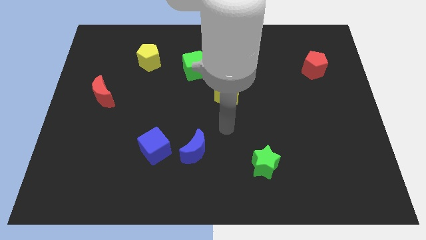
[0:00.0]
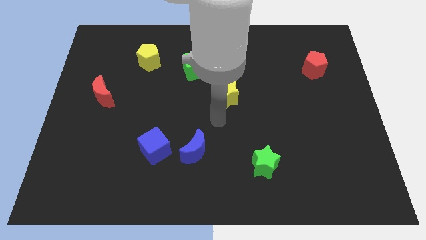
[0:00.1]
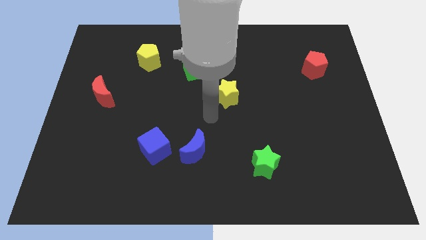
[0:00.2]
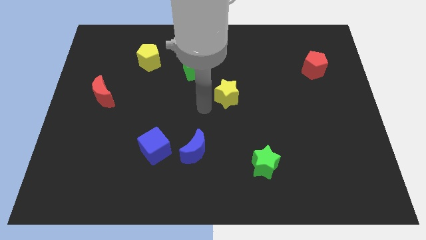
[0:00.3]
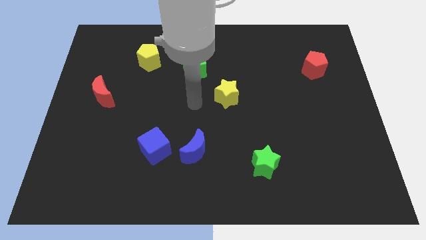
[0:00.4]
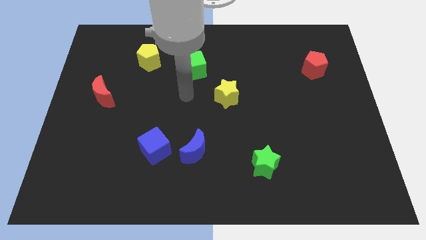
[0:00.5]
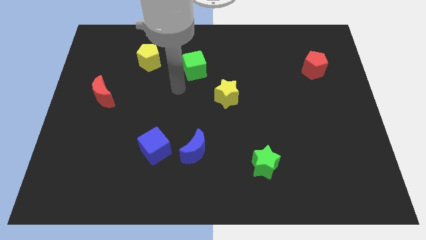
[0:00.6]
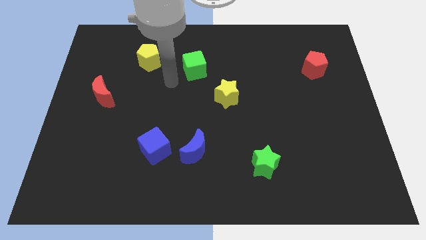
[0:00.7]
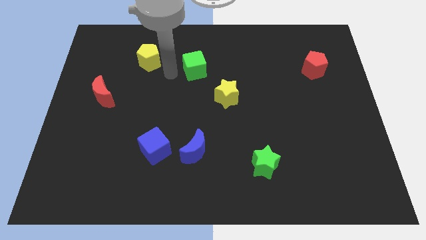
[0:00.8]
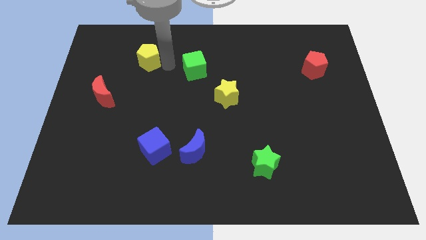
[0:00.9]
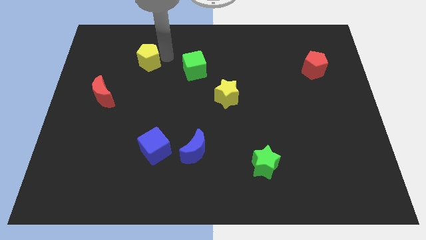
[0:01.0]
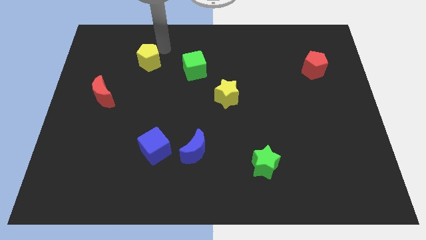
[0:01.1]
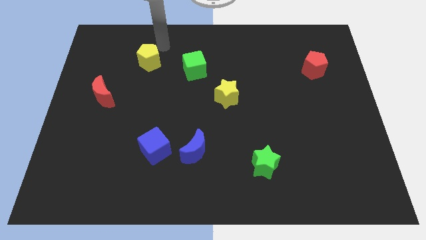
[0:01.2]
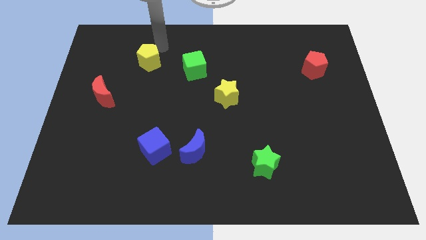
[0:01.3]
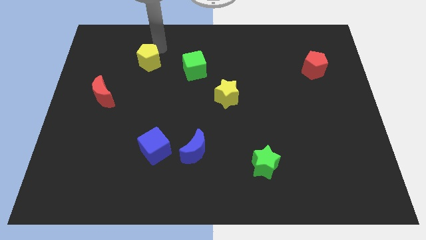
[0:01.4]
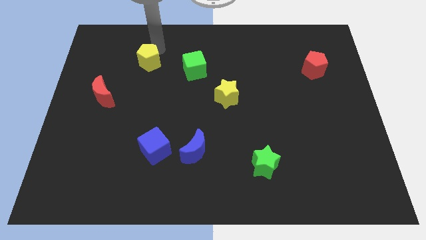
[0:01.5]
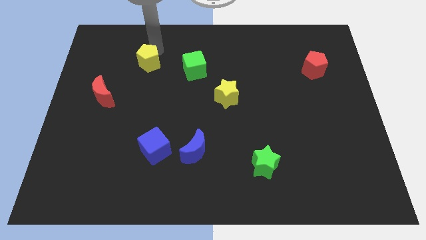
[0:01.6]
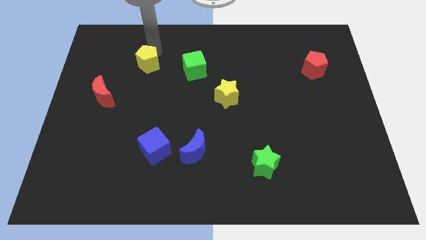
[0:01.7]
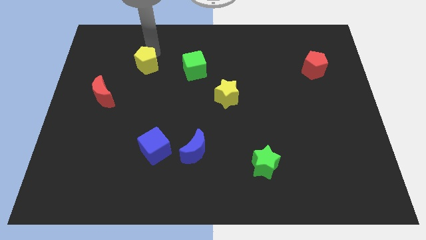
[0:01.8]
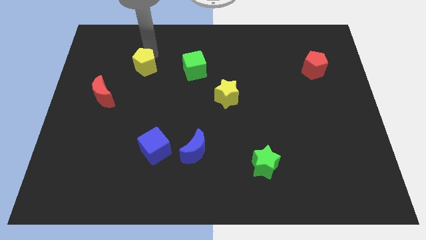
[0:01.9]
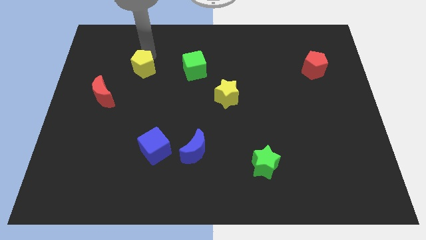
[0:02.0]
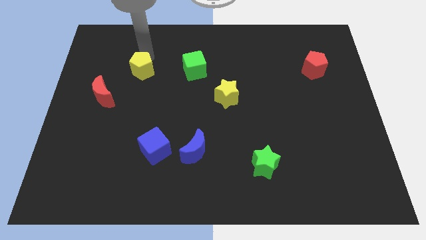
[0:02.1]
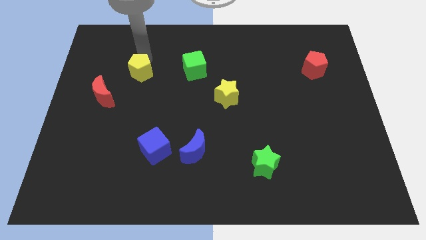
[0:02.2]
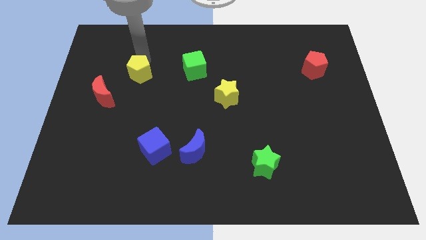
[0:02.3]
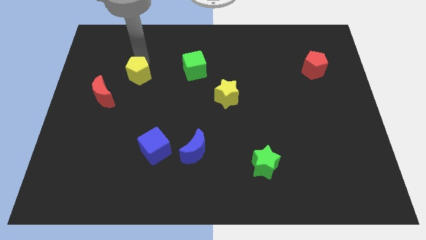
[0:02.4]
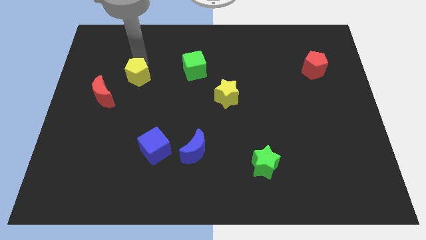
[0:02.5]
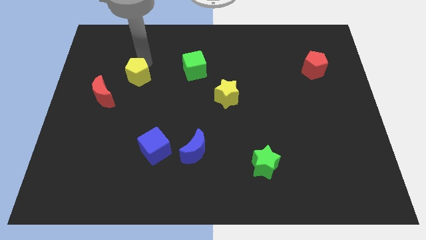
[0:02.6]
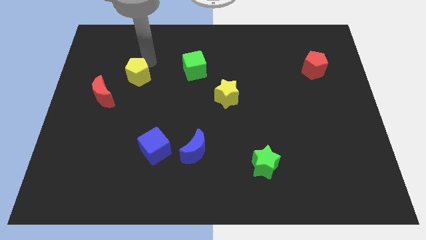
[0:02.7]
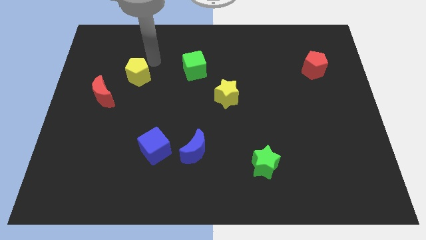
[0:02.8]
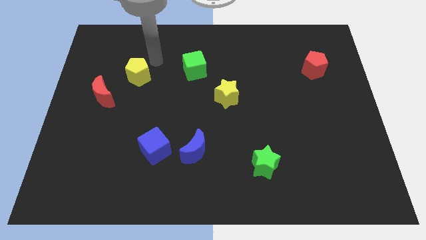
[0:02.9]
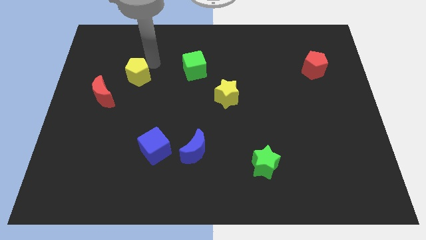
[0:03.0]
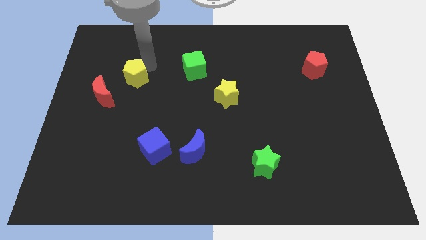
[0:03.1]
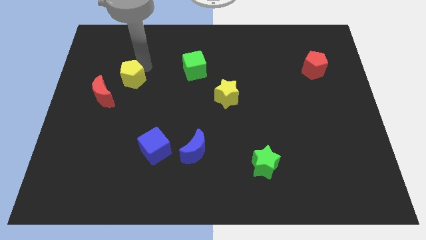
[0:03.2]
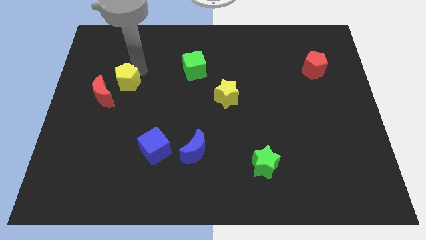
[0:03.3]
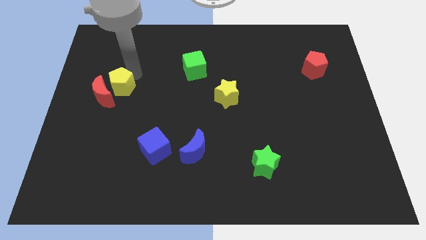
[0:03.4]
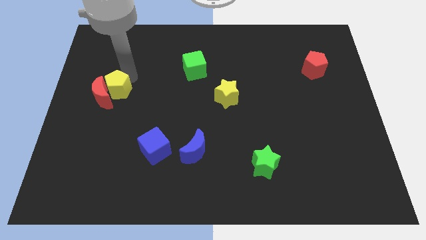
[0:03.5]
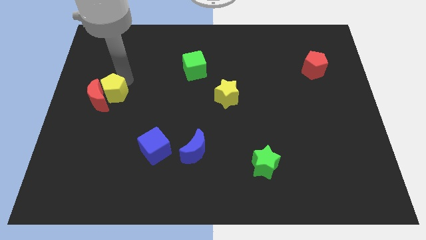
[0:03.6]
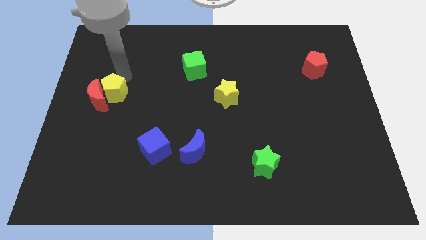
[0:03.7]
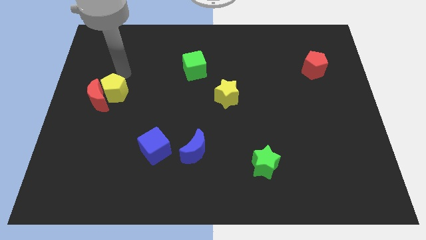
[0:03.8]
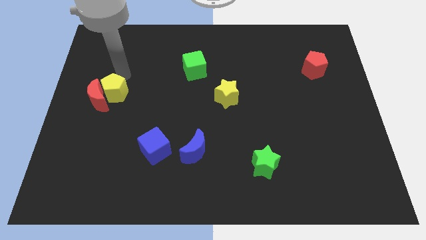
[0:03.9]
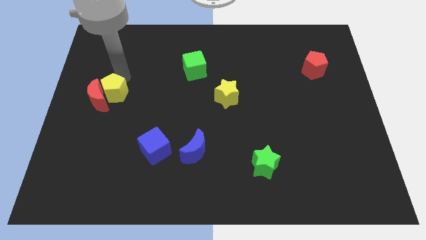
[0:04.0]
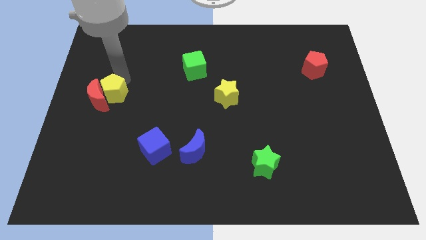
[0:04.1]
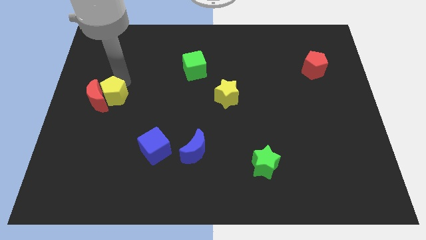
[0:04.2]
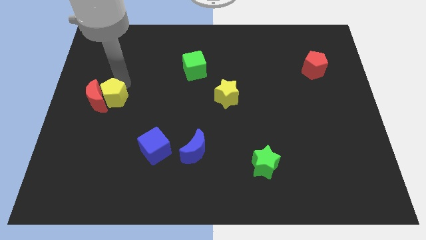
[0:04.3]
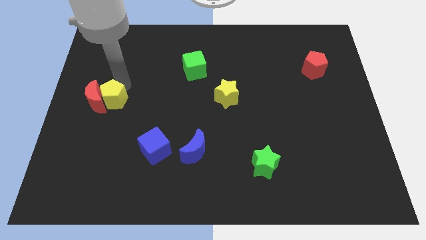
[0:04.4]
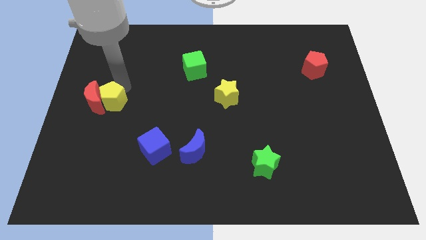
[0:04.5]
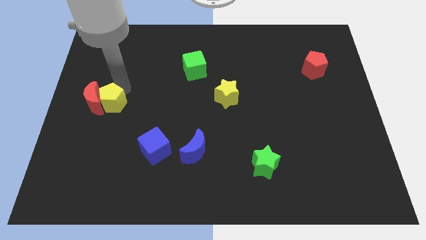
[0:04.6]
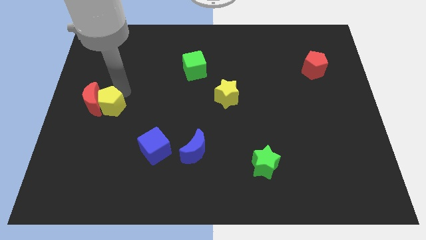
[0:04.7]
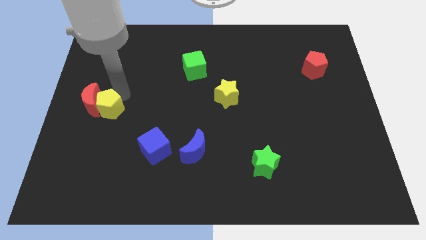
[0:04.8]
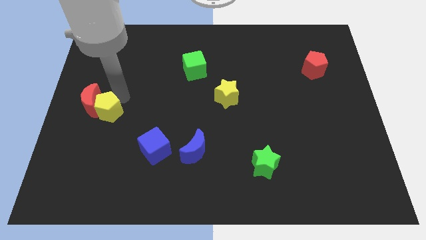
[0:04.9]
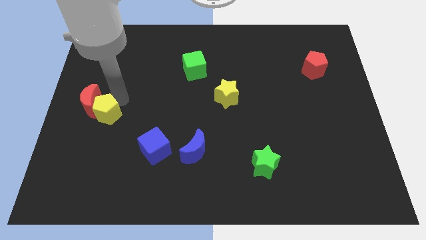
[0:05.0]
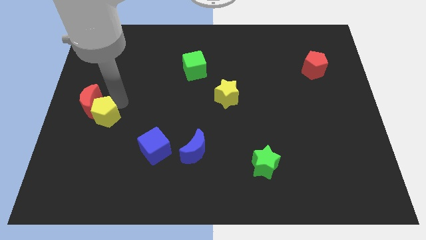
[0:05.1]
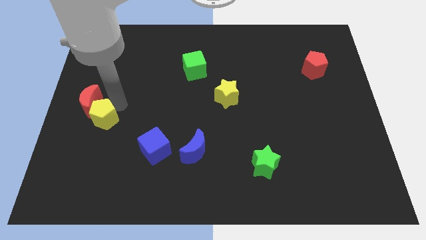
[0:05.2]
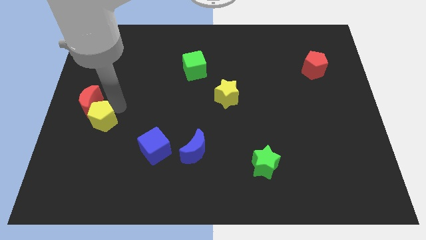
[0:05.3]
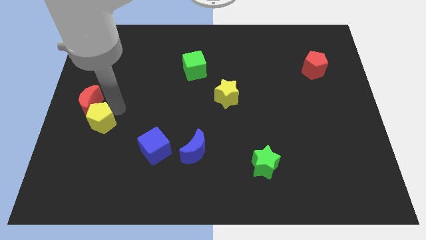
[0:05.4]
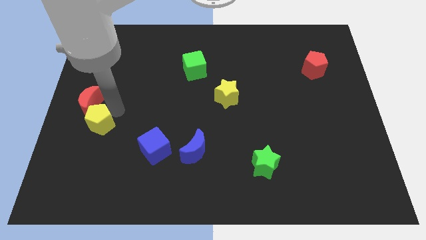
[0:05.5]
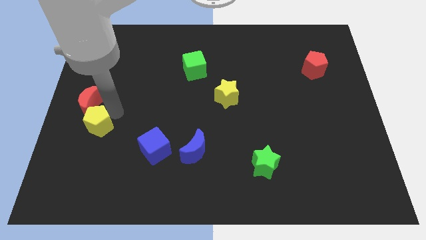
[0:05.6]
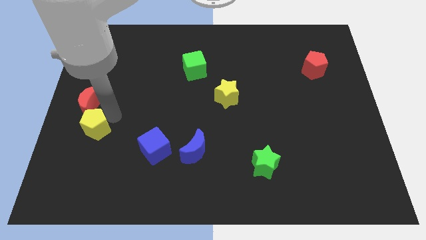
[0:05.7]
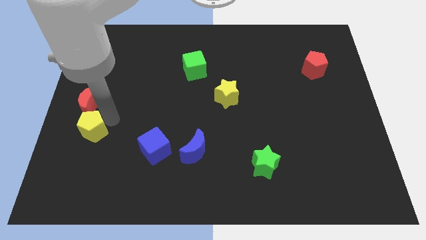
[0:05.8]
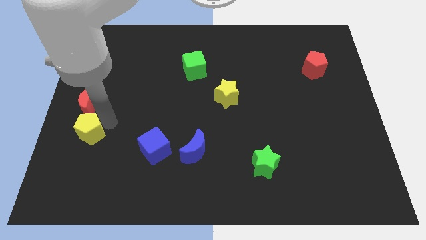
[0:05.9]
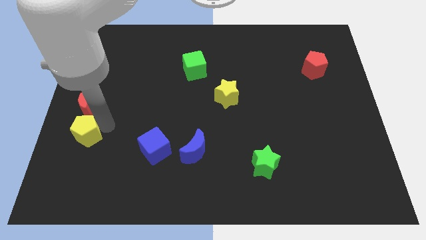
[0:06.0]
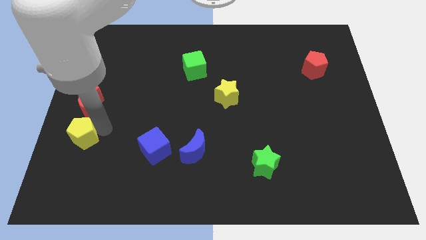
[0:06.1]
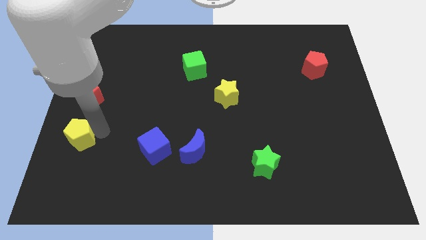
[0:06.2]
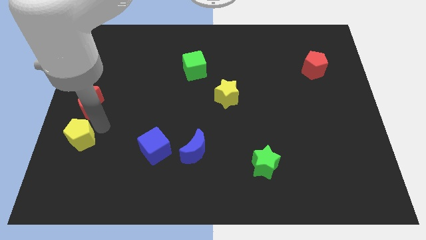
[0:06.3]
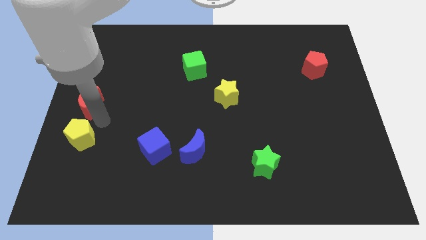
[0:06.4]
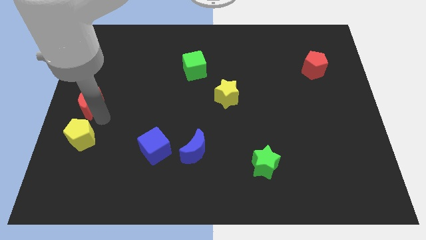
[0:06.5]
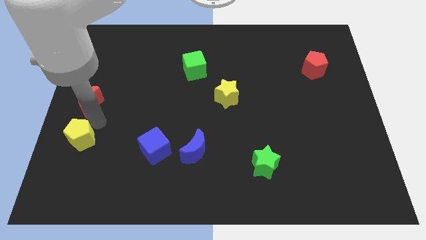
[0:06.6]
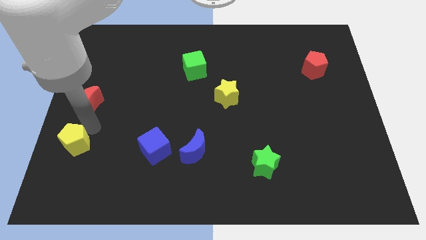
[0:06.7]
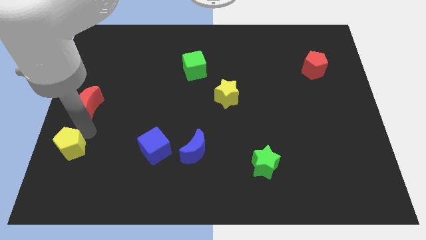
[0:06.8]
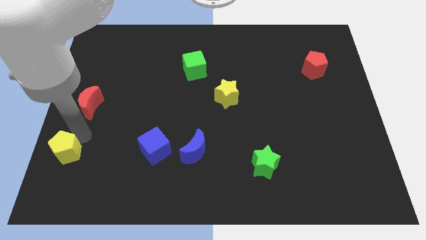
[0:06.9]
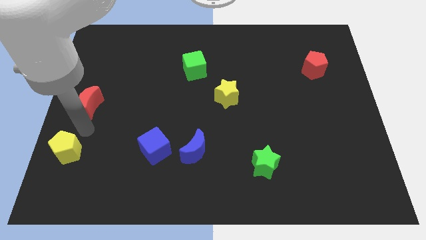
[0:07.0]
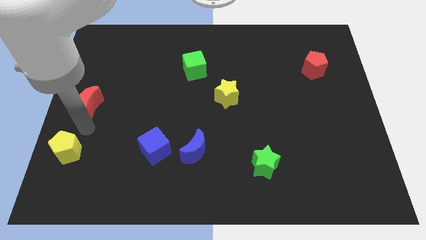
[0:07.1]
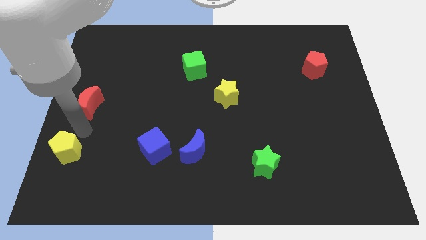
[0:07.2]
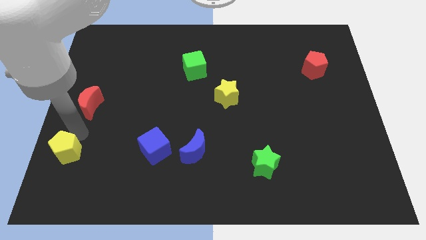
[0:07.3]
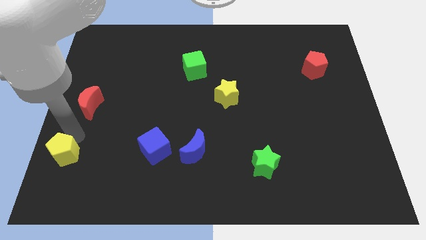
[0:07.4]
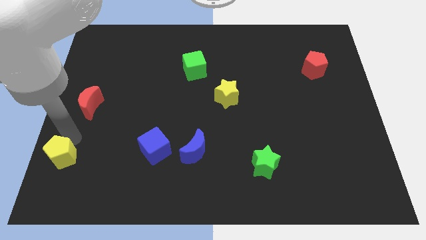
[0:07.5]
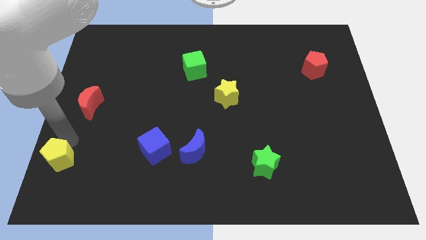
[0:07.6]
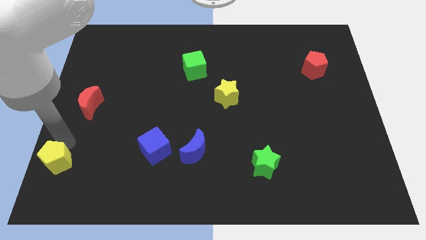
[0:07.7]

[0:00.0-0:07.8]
slide the yellow pentagon to the bottom left
